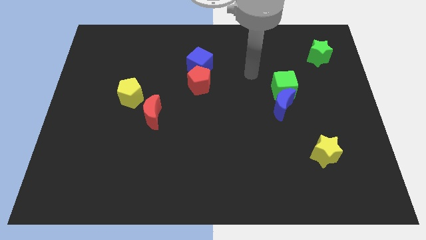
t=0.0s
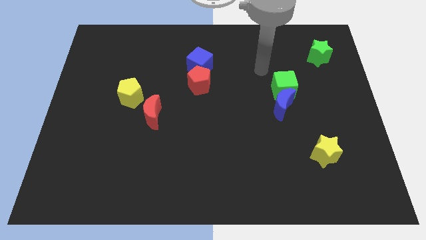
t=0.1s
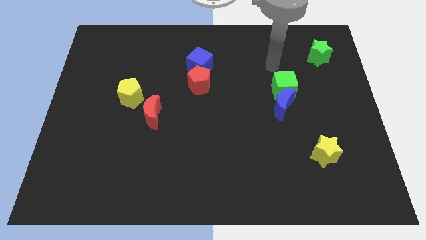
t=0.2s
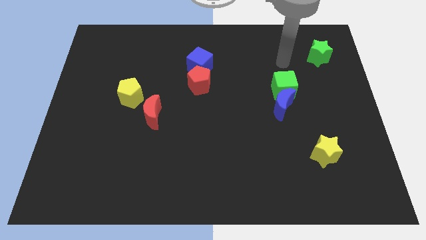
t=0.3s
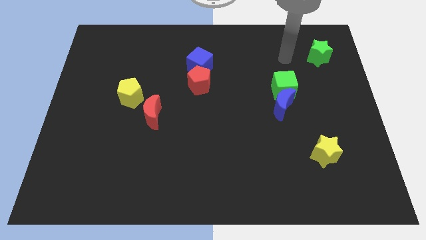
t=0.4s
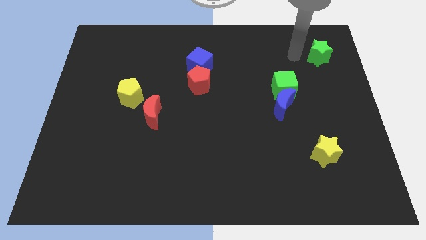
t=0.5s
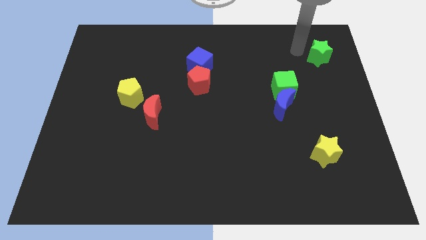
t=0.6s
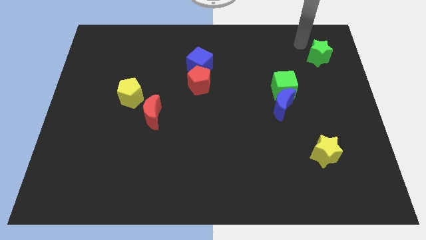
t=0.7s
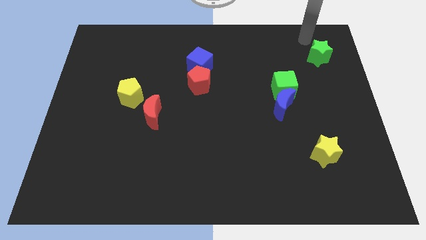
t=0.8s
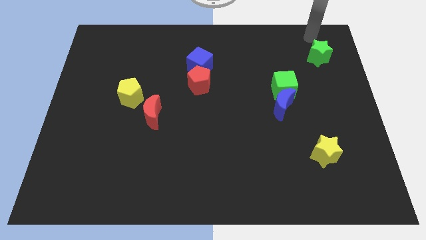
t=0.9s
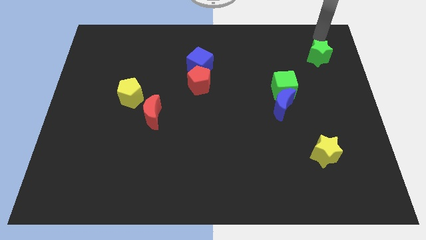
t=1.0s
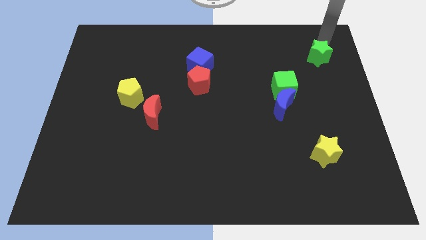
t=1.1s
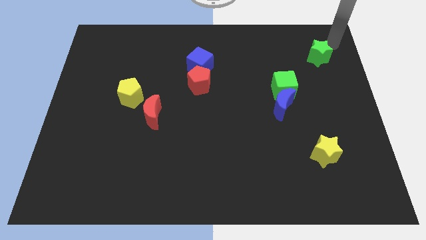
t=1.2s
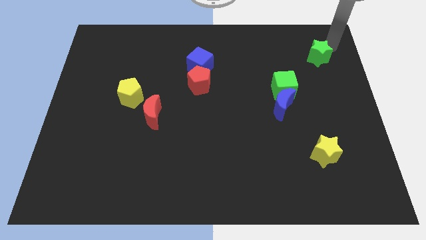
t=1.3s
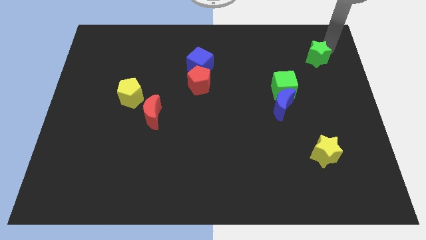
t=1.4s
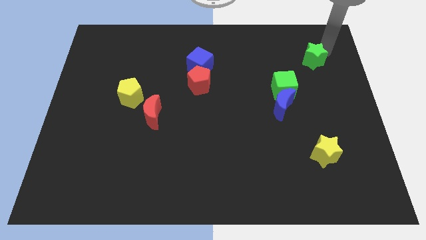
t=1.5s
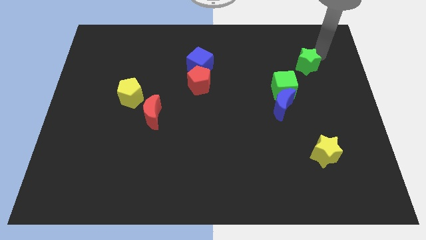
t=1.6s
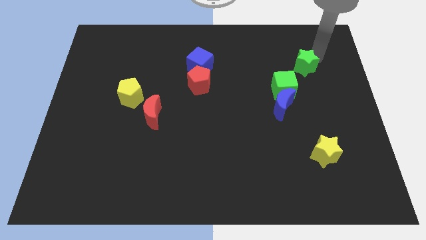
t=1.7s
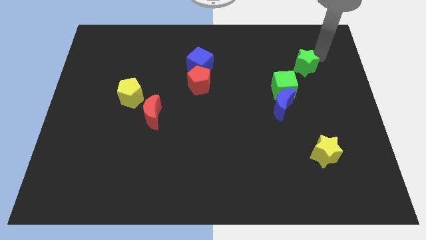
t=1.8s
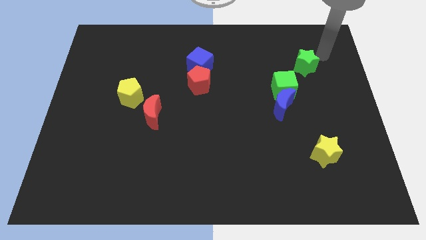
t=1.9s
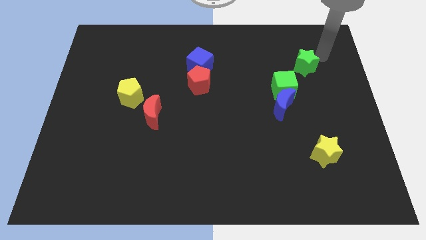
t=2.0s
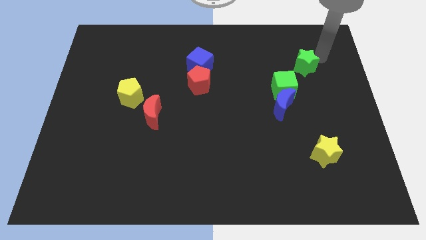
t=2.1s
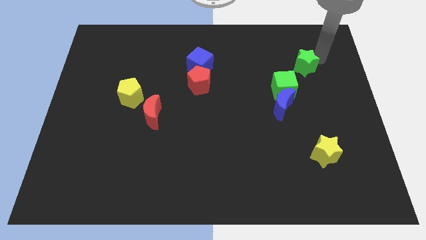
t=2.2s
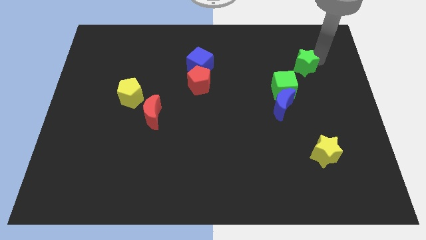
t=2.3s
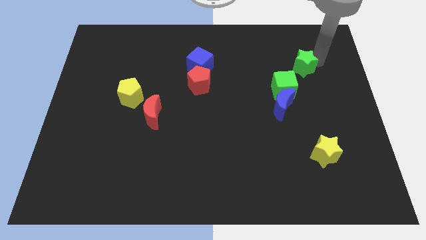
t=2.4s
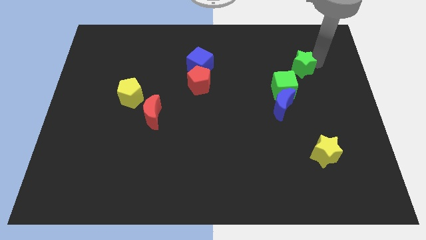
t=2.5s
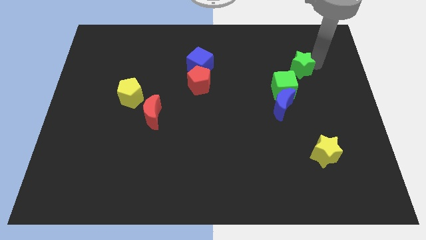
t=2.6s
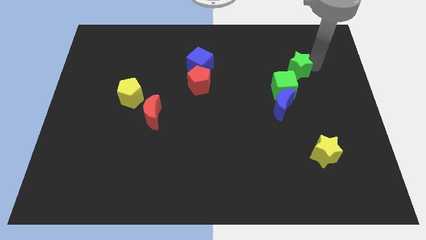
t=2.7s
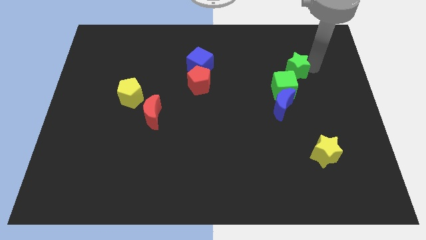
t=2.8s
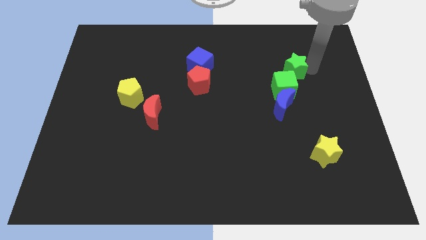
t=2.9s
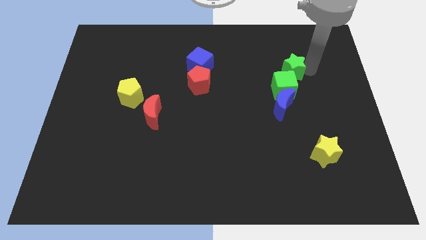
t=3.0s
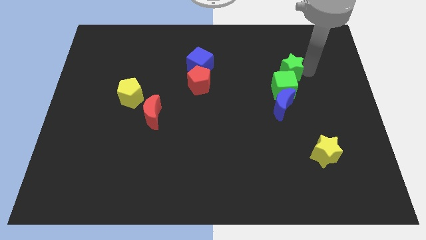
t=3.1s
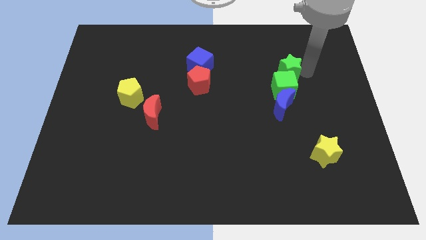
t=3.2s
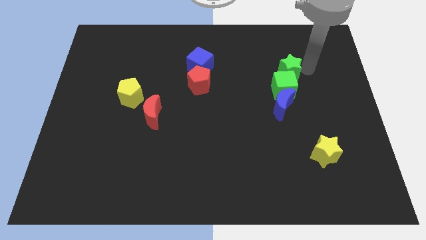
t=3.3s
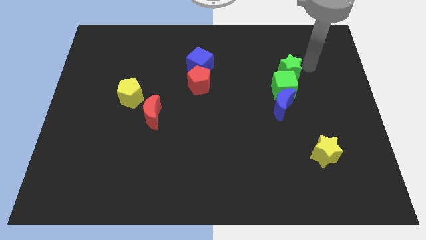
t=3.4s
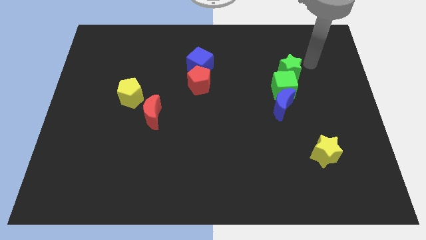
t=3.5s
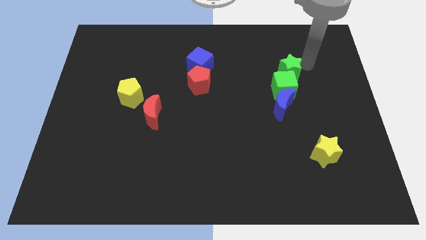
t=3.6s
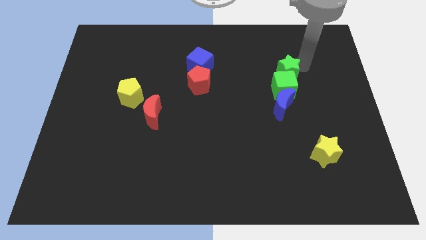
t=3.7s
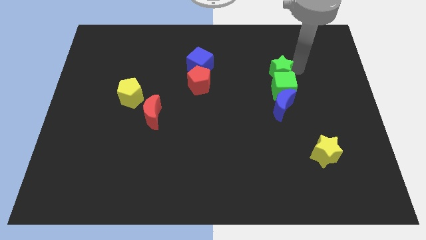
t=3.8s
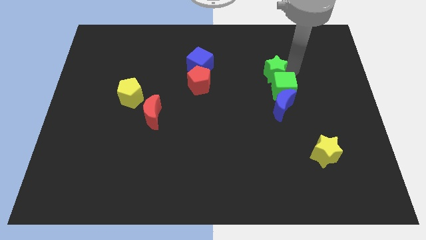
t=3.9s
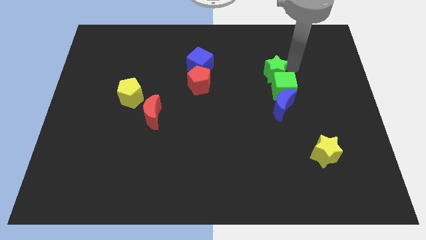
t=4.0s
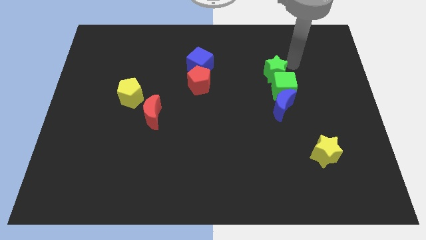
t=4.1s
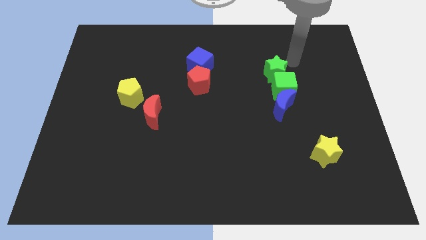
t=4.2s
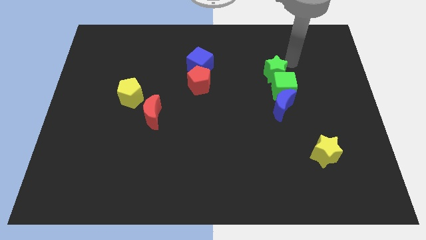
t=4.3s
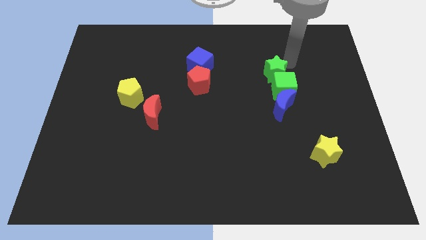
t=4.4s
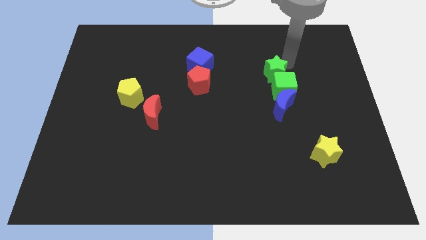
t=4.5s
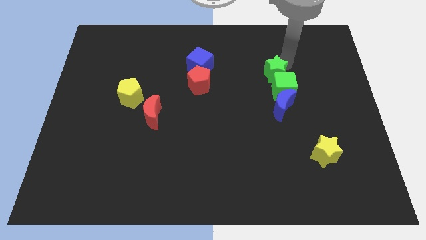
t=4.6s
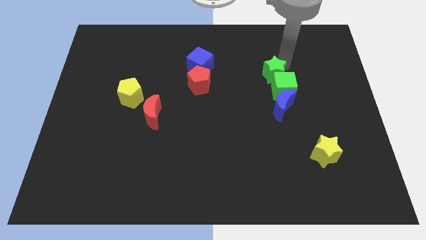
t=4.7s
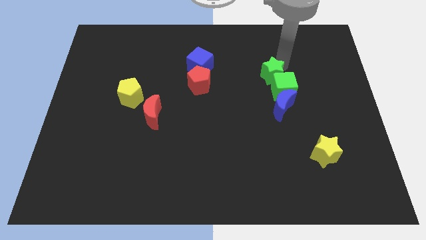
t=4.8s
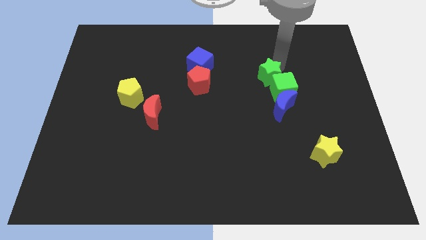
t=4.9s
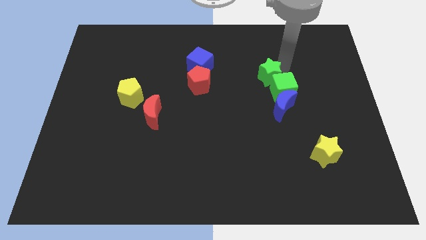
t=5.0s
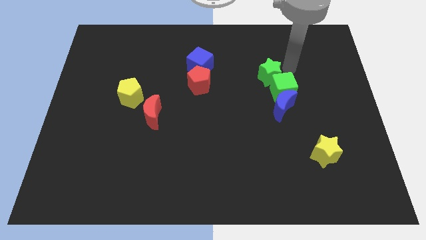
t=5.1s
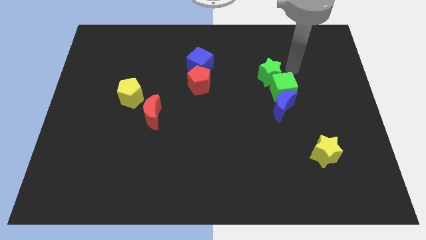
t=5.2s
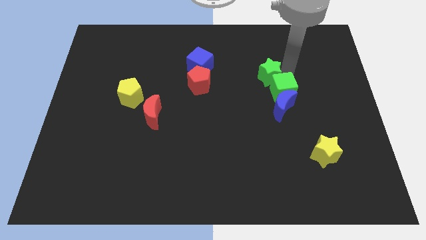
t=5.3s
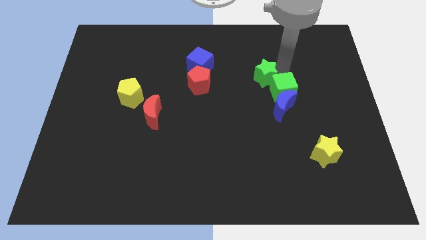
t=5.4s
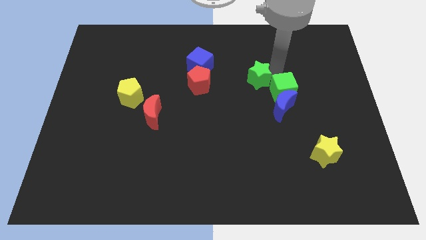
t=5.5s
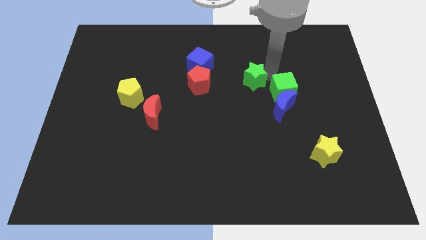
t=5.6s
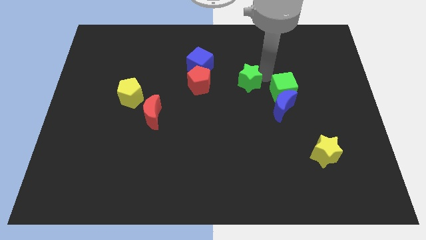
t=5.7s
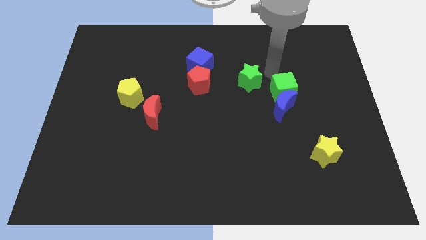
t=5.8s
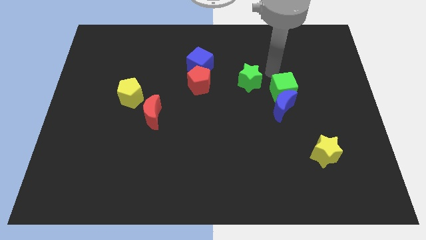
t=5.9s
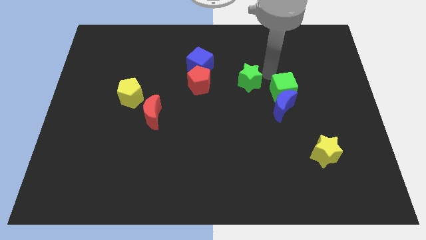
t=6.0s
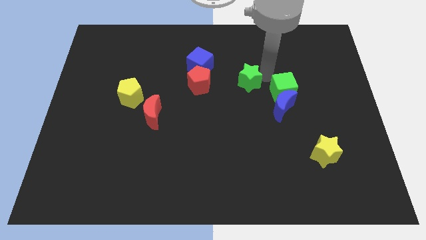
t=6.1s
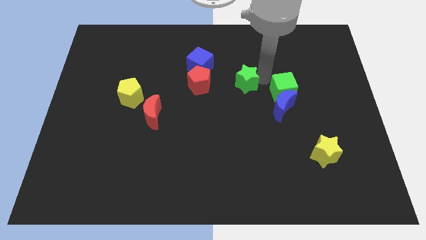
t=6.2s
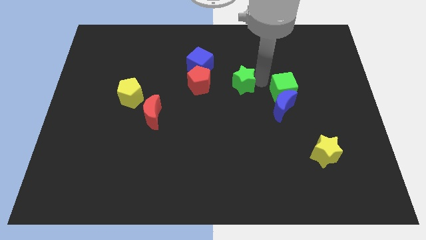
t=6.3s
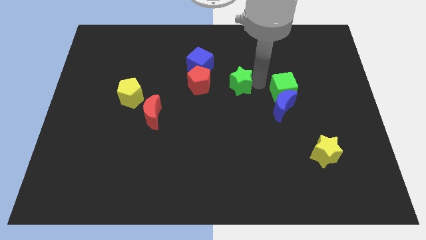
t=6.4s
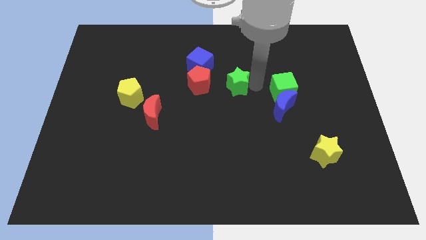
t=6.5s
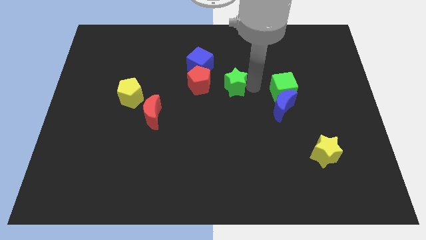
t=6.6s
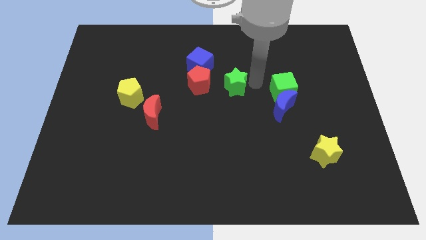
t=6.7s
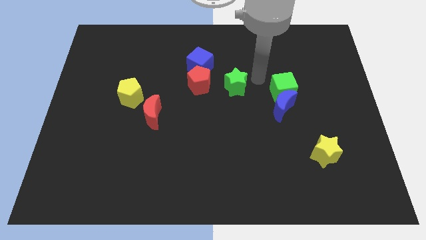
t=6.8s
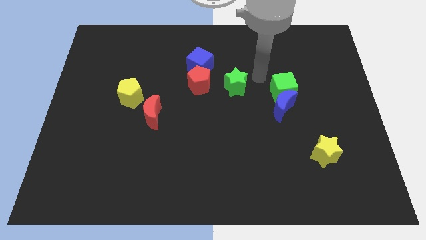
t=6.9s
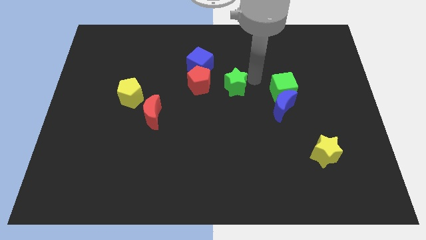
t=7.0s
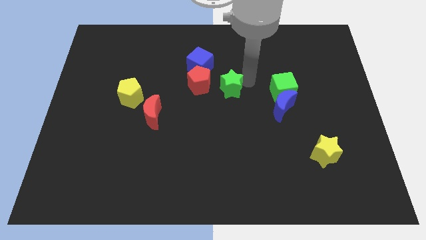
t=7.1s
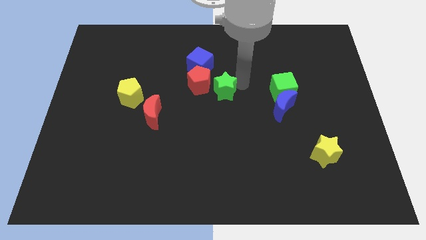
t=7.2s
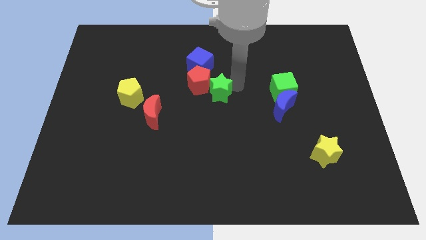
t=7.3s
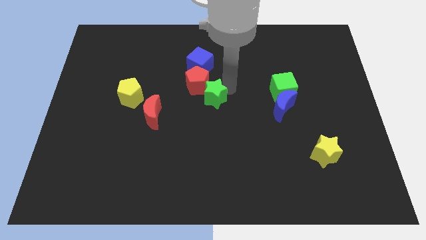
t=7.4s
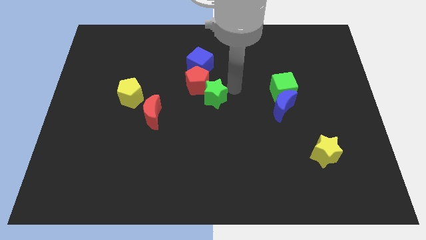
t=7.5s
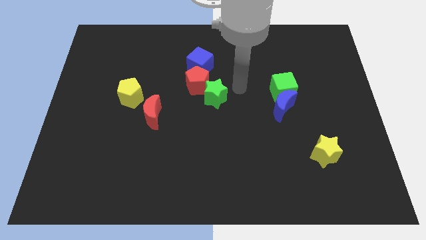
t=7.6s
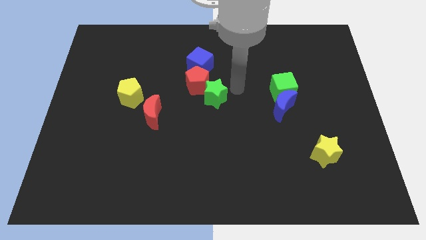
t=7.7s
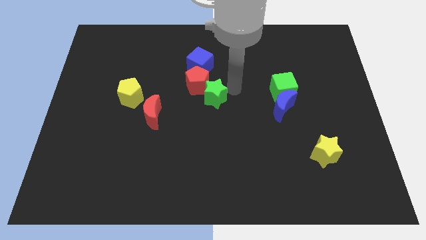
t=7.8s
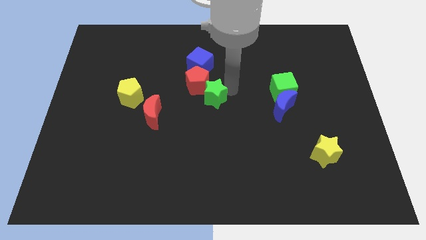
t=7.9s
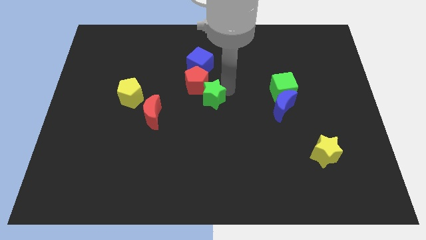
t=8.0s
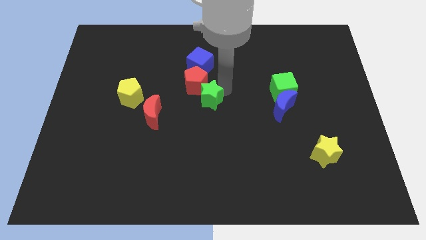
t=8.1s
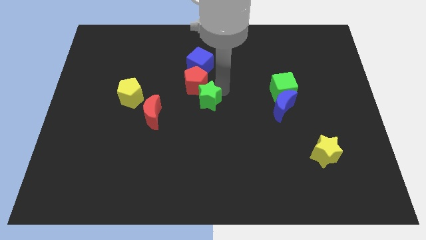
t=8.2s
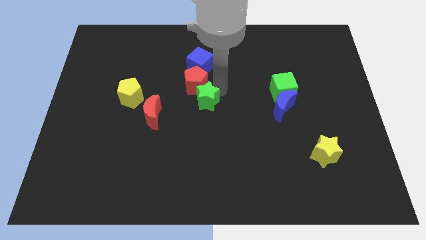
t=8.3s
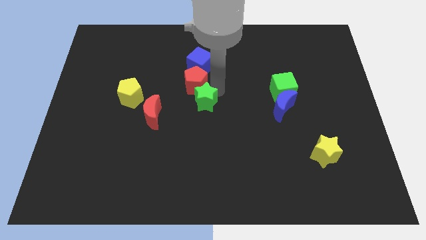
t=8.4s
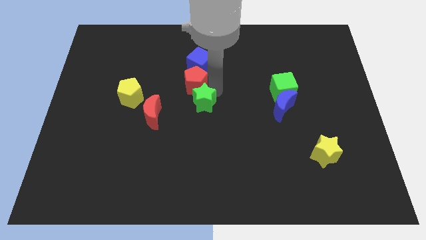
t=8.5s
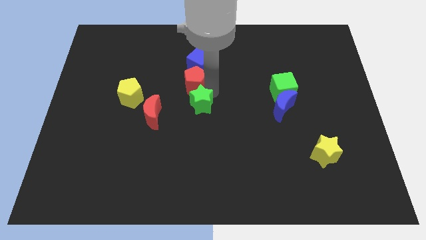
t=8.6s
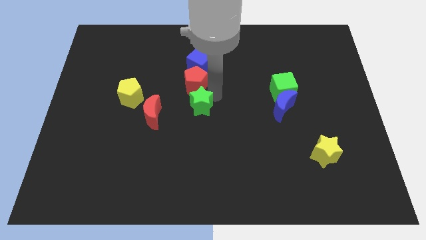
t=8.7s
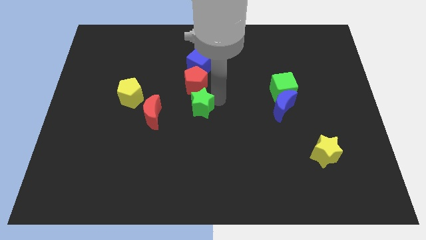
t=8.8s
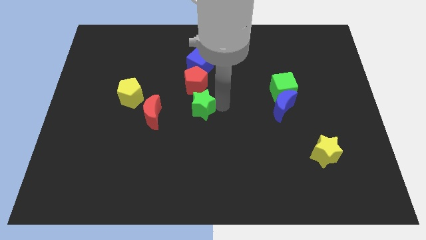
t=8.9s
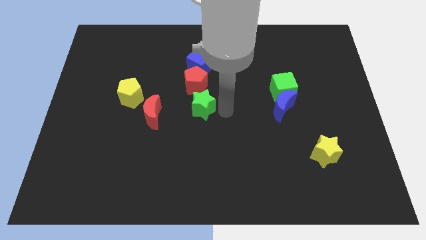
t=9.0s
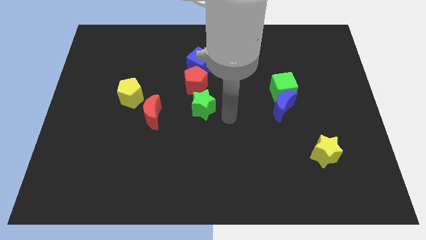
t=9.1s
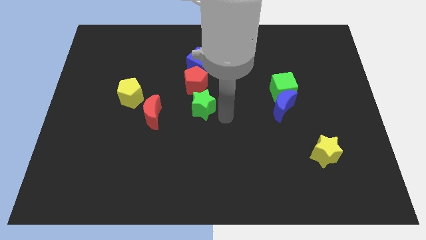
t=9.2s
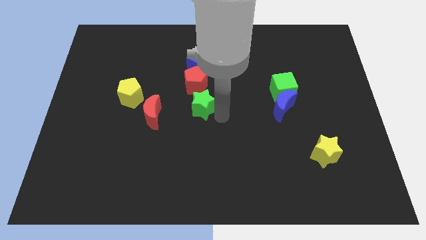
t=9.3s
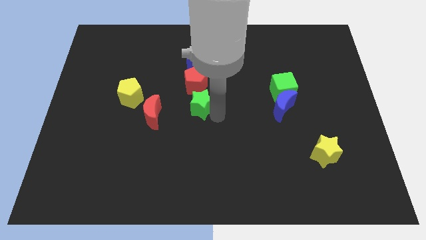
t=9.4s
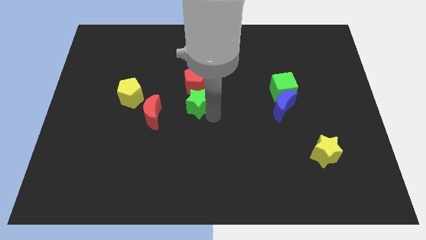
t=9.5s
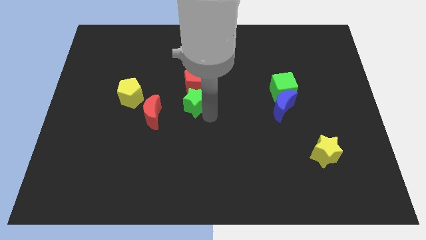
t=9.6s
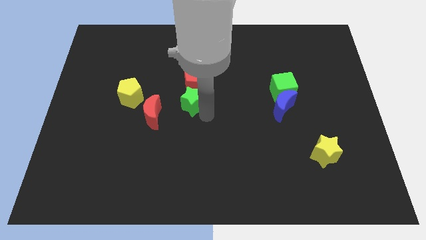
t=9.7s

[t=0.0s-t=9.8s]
put the green star to the right side of the yellow pentagon
